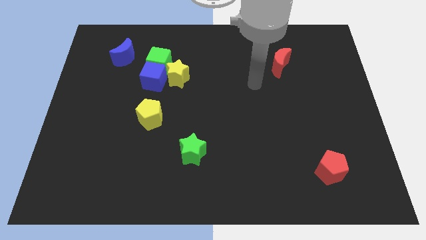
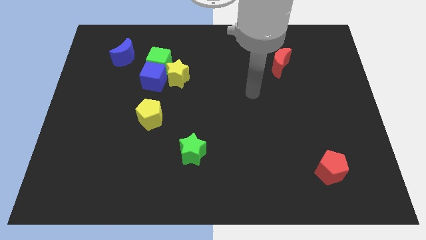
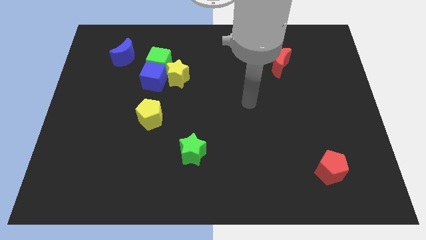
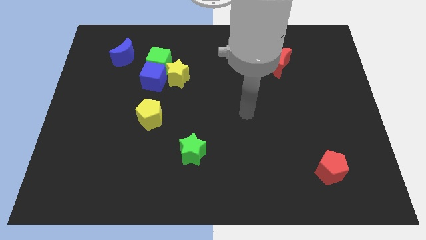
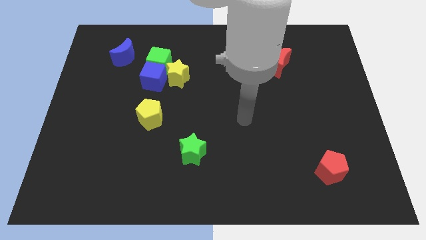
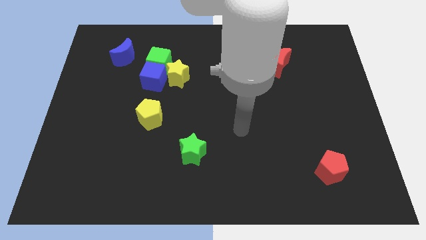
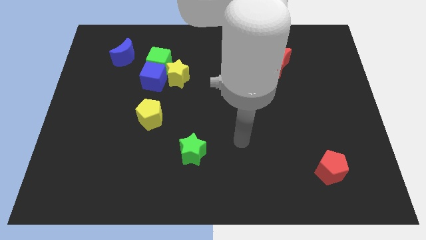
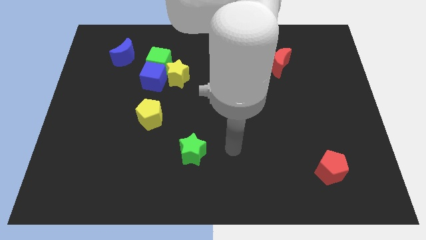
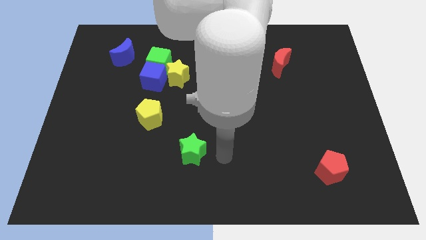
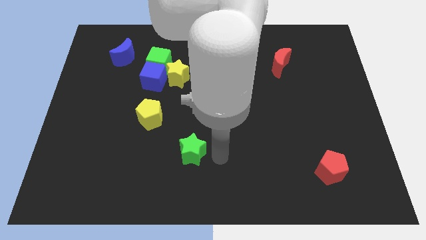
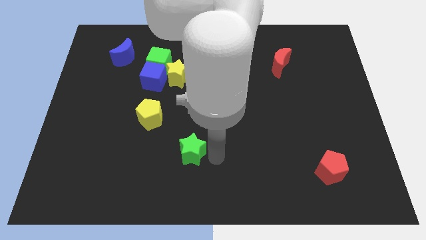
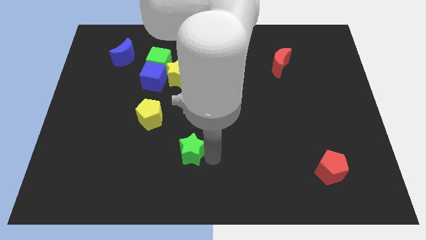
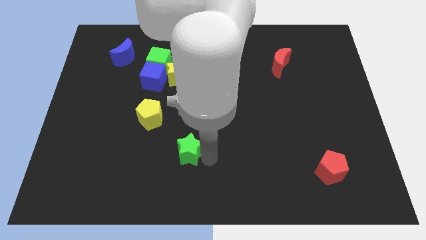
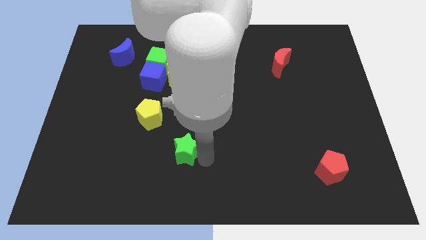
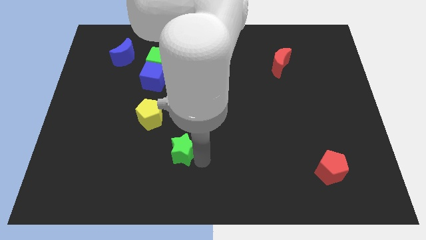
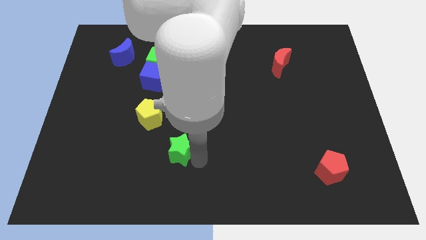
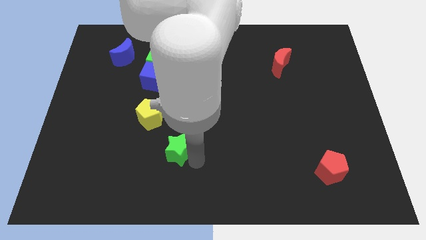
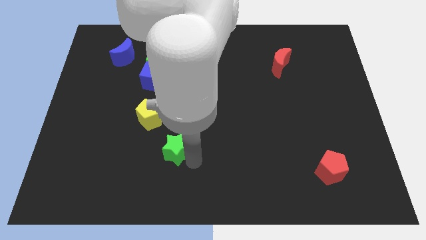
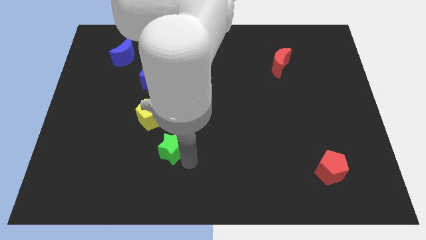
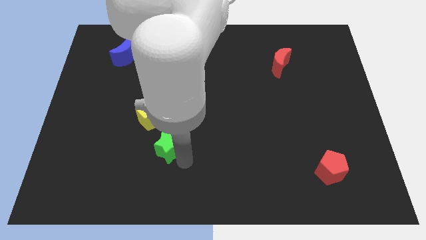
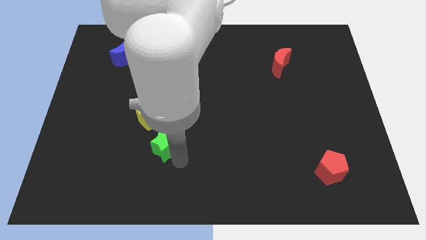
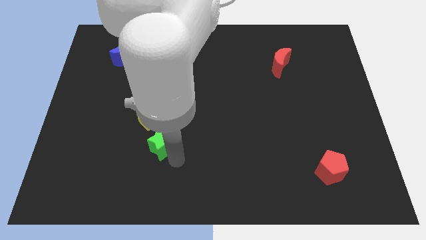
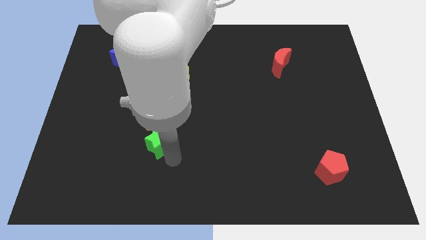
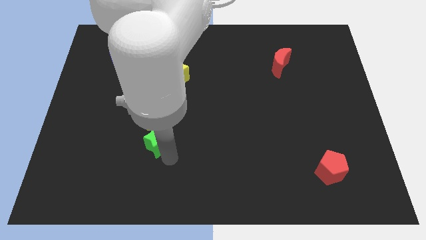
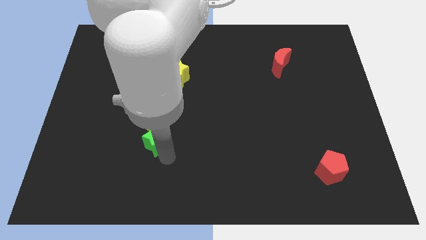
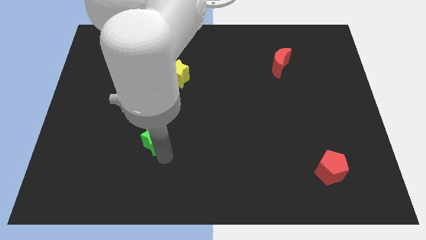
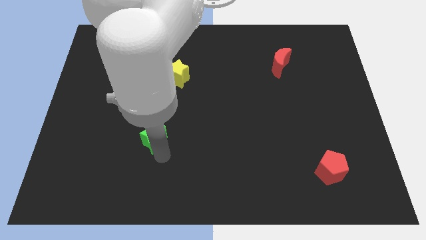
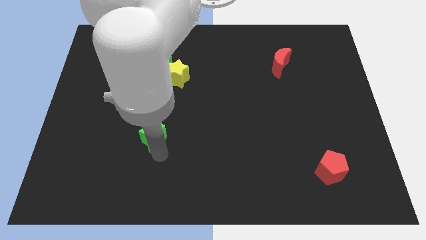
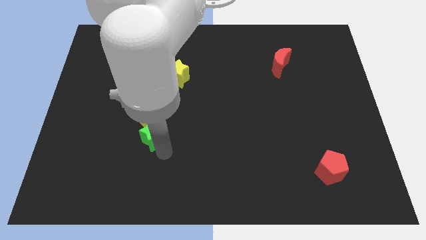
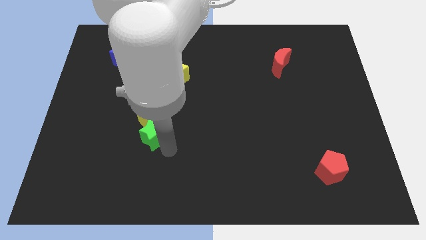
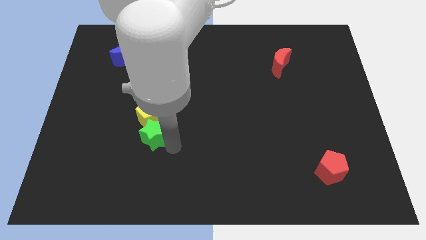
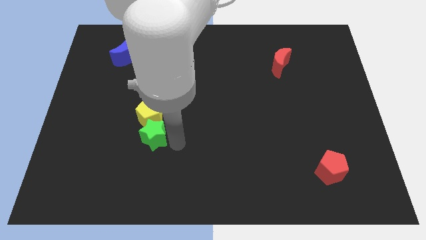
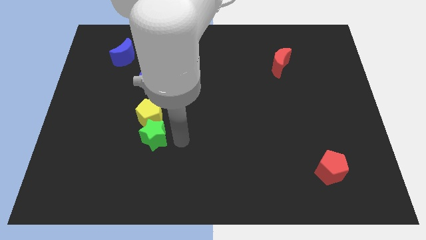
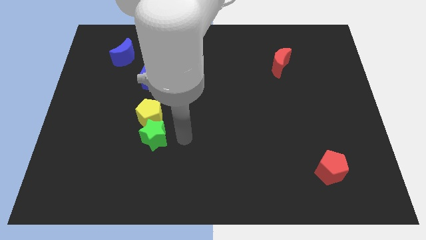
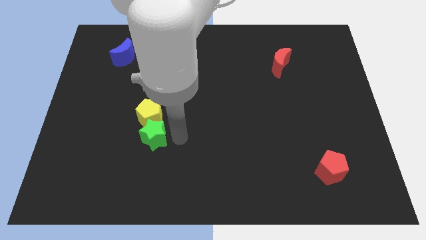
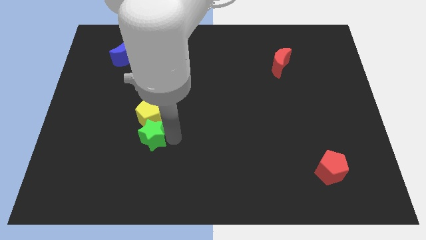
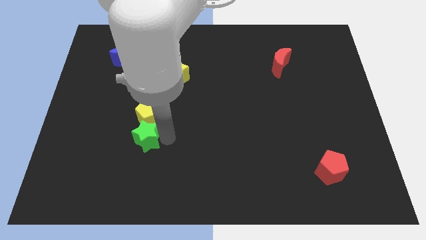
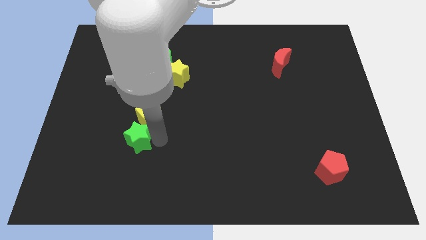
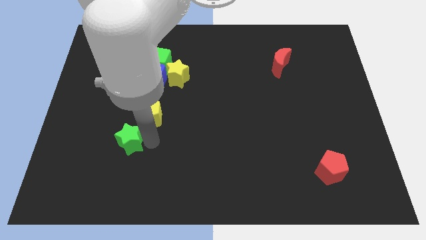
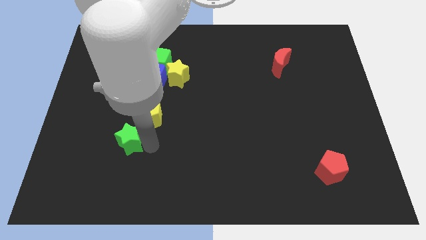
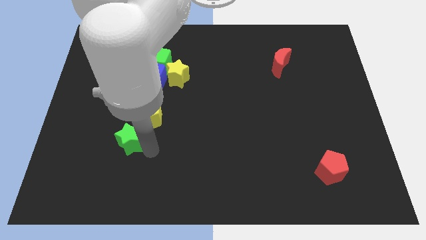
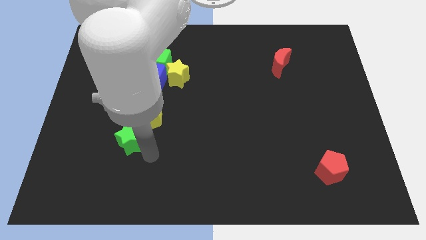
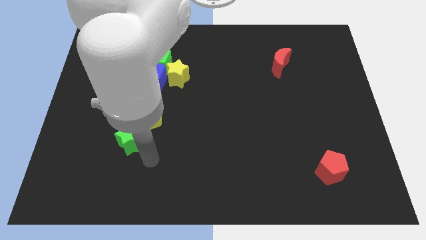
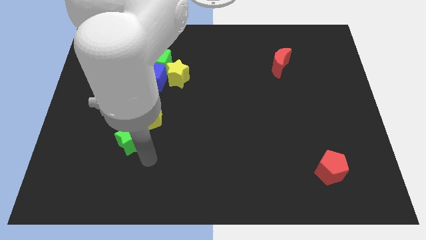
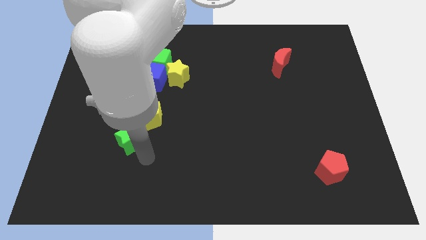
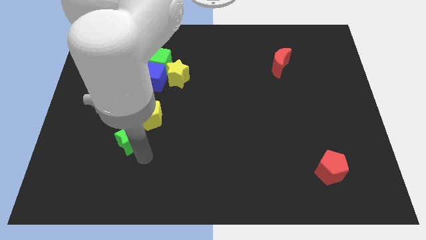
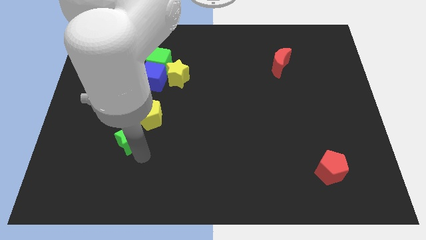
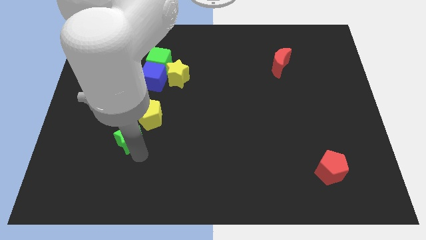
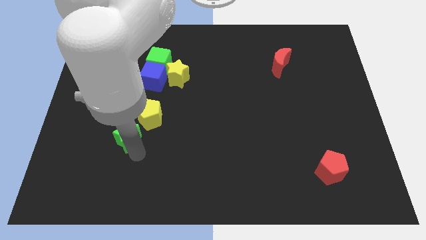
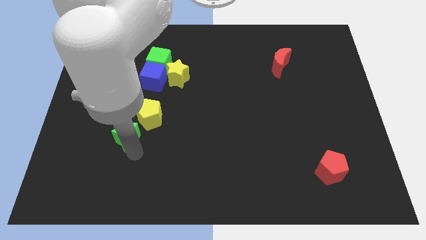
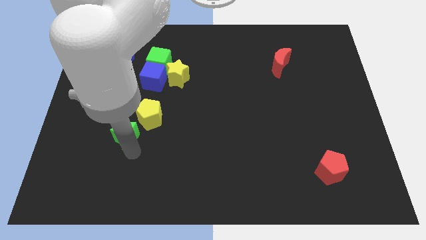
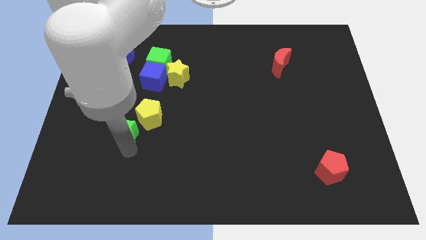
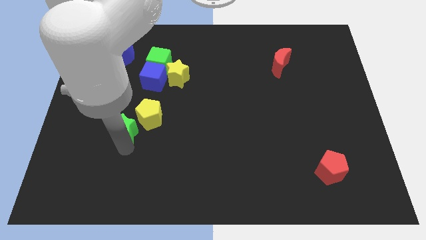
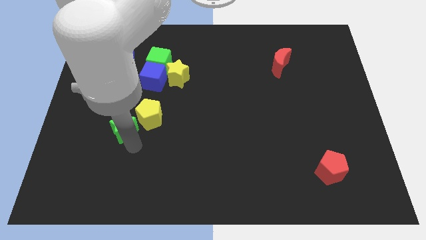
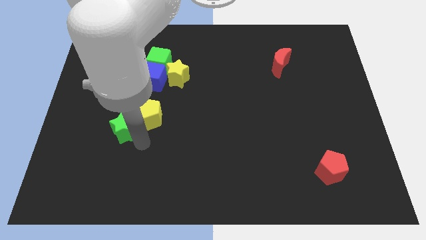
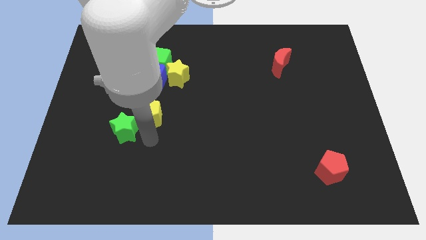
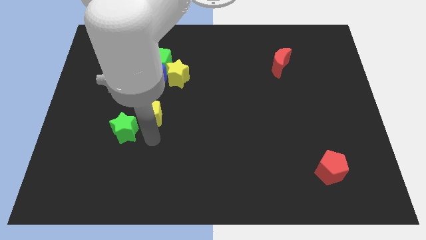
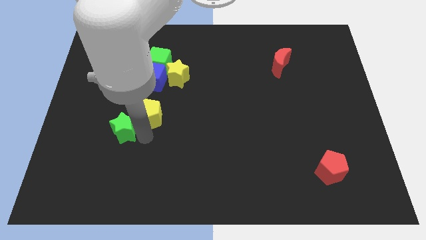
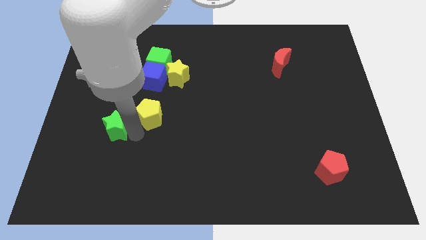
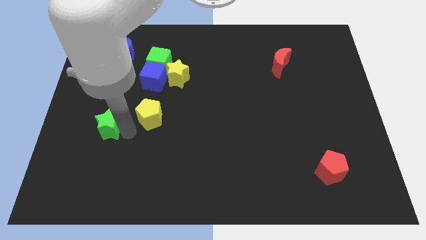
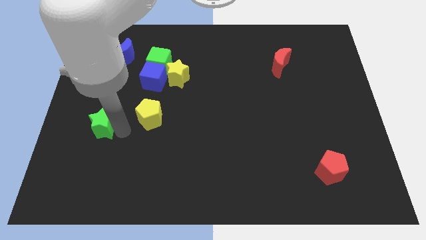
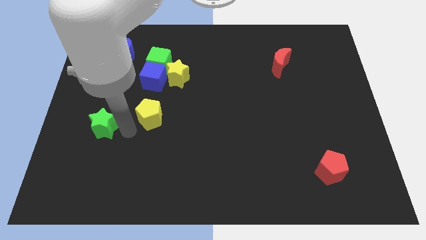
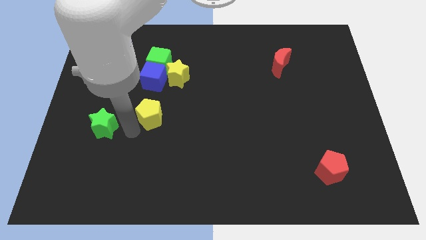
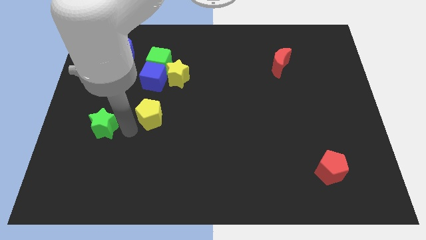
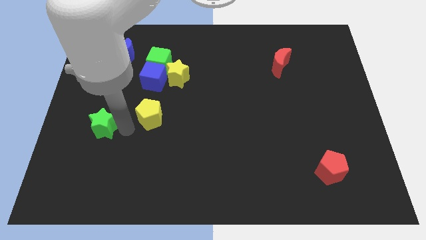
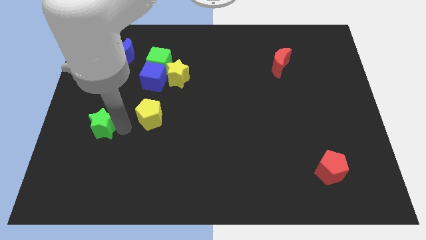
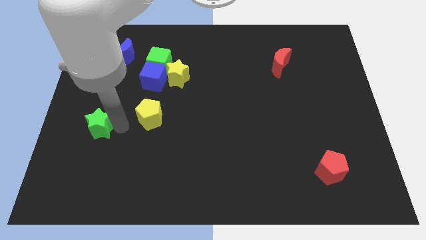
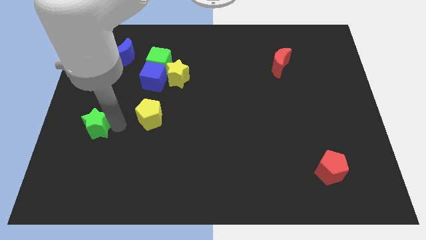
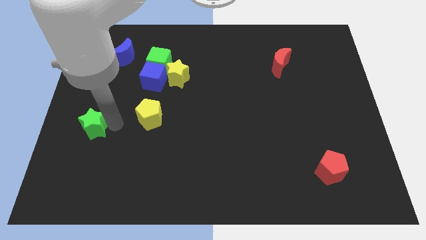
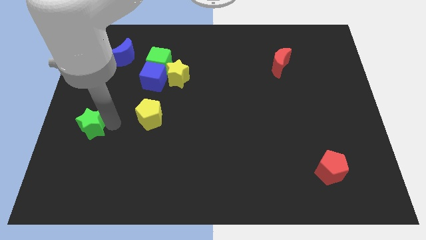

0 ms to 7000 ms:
put the green star to the center left
